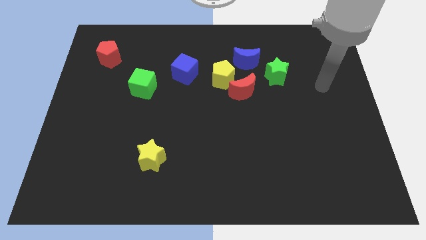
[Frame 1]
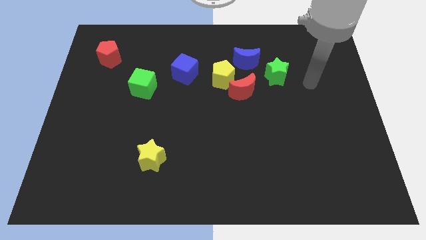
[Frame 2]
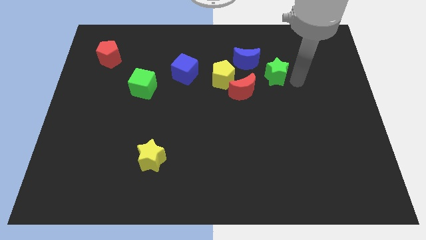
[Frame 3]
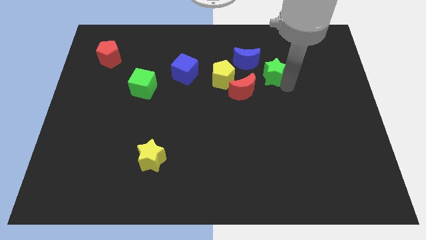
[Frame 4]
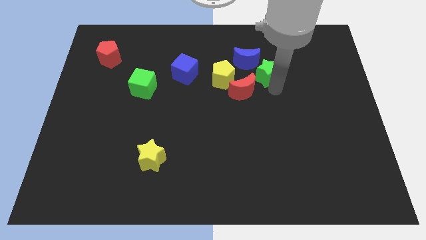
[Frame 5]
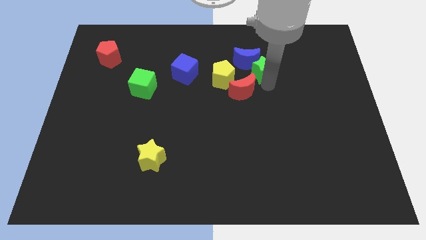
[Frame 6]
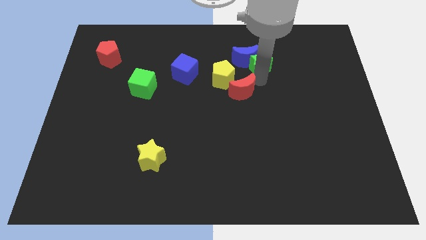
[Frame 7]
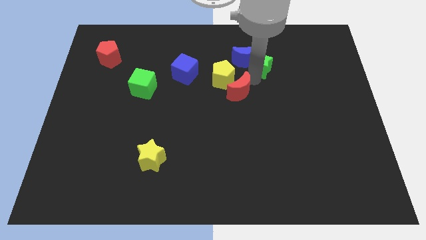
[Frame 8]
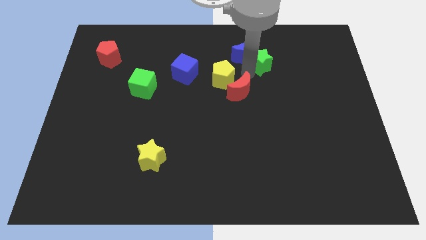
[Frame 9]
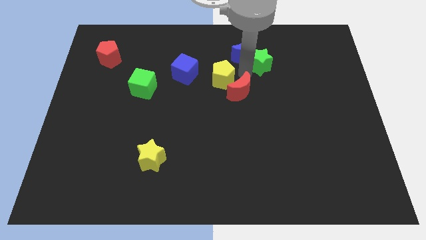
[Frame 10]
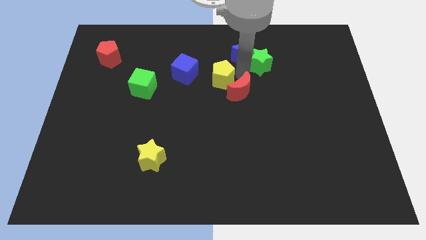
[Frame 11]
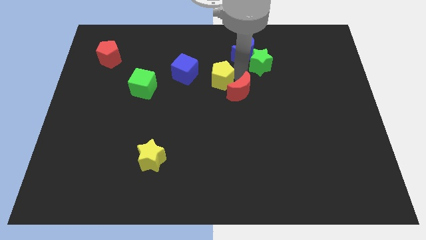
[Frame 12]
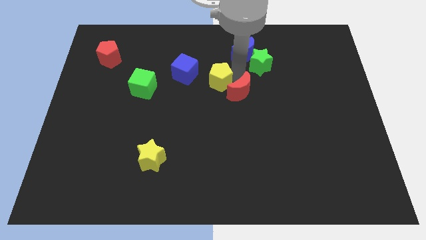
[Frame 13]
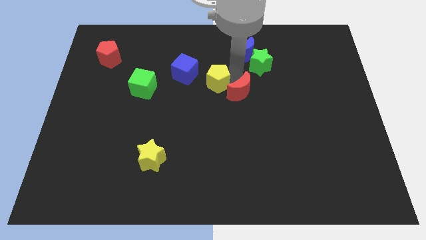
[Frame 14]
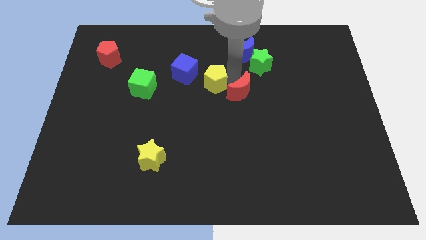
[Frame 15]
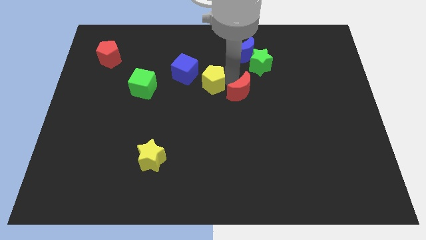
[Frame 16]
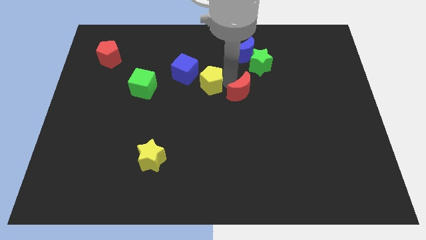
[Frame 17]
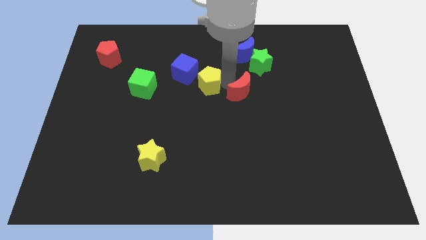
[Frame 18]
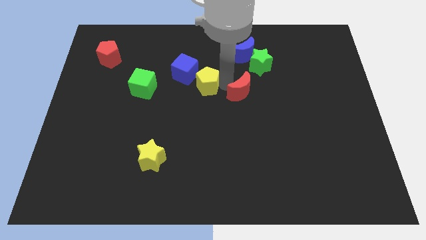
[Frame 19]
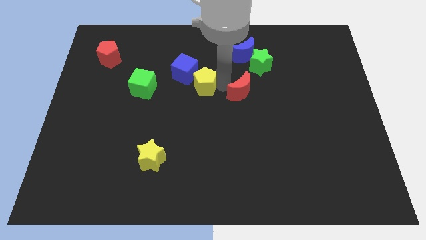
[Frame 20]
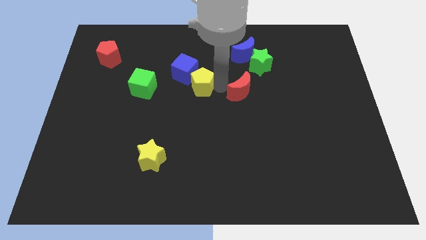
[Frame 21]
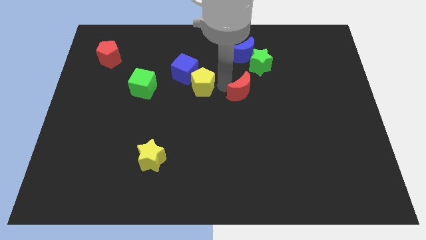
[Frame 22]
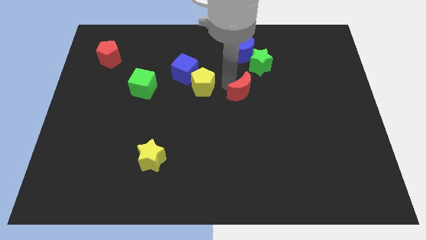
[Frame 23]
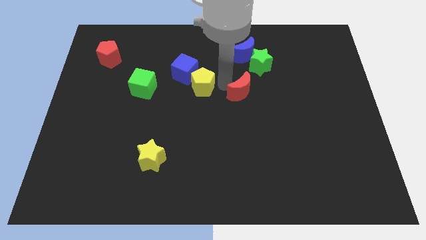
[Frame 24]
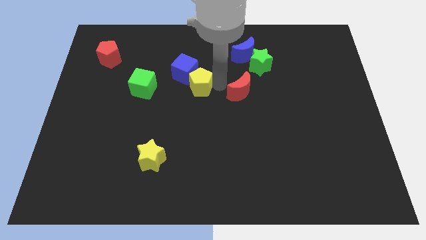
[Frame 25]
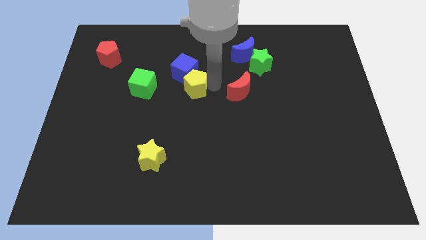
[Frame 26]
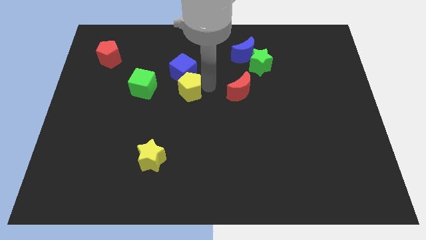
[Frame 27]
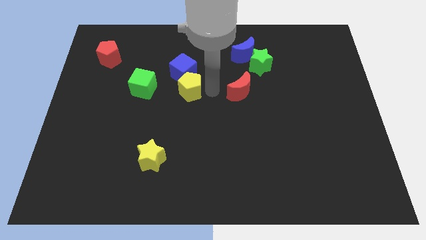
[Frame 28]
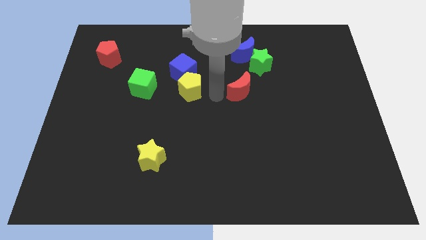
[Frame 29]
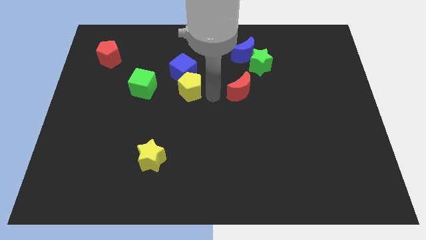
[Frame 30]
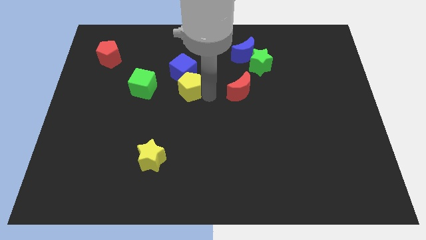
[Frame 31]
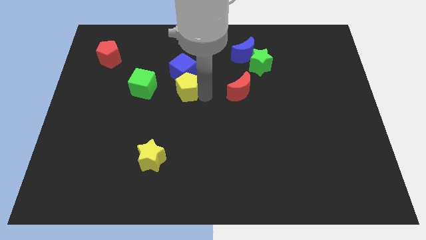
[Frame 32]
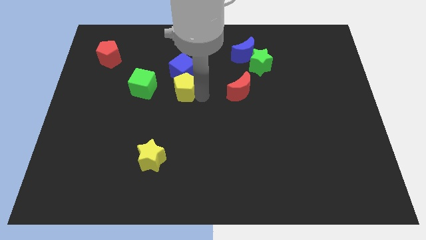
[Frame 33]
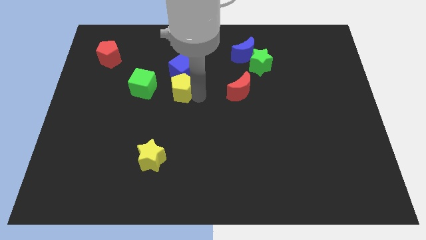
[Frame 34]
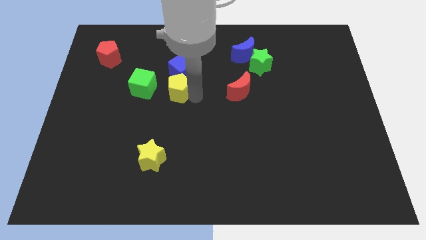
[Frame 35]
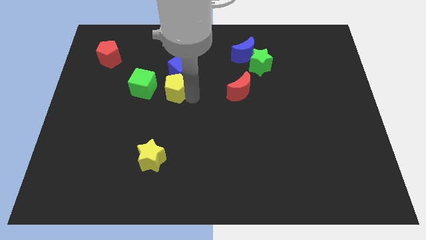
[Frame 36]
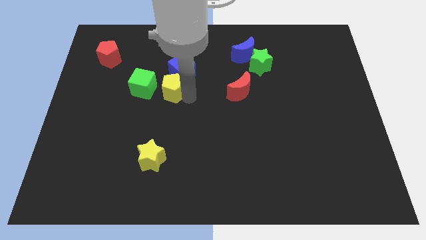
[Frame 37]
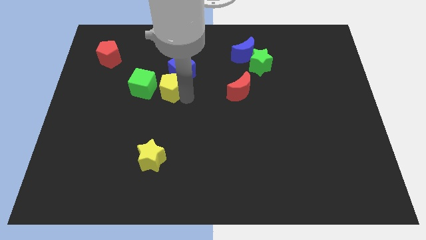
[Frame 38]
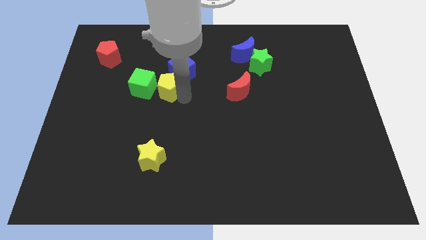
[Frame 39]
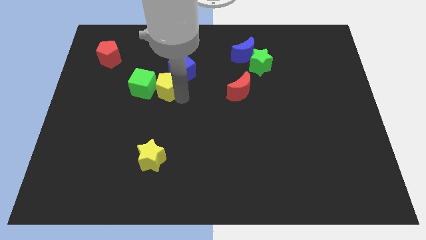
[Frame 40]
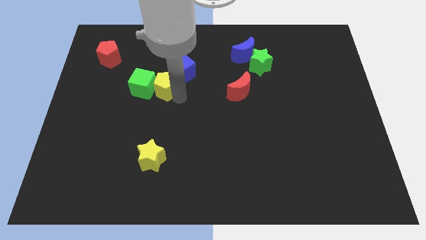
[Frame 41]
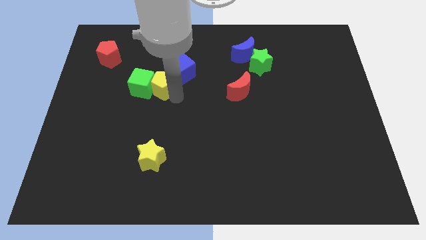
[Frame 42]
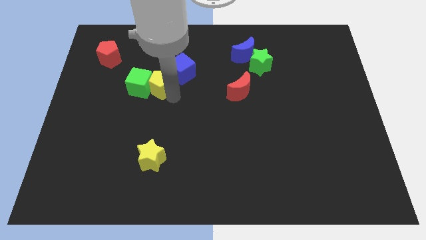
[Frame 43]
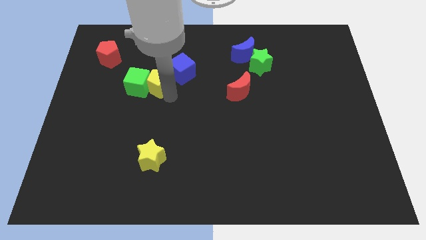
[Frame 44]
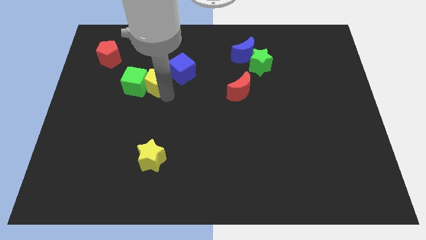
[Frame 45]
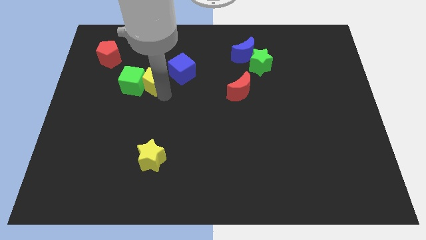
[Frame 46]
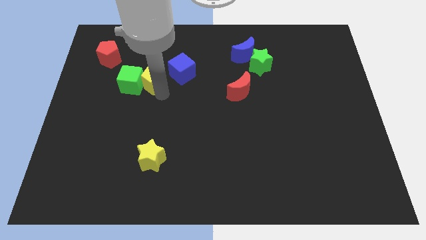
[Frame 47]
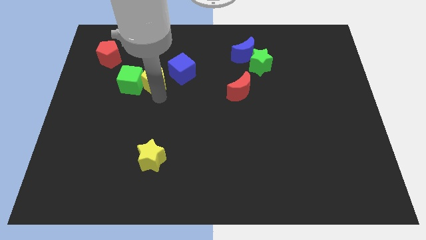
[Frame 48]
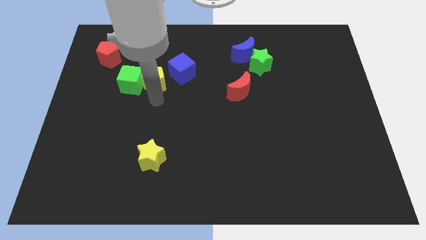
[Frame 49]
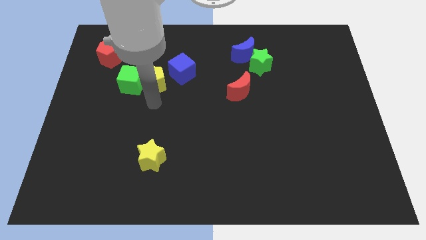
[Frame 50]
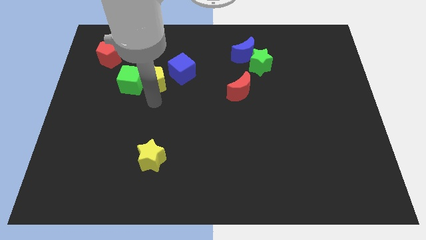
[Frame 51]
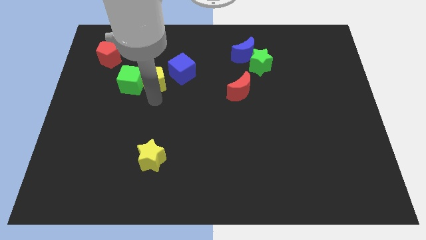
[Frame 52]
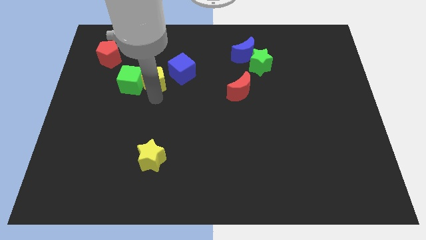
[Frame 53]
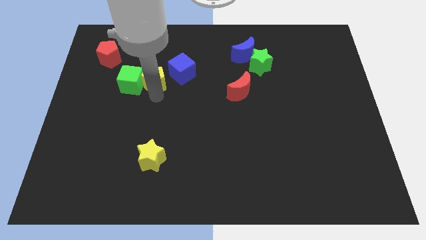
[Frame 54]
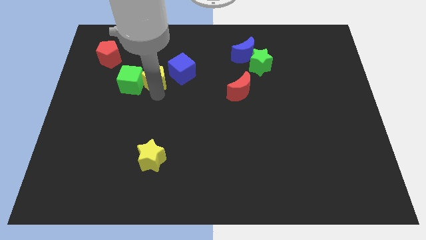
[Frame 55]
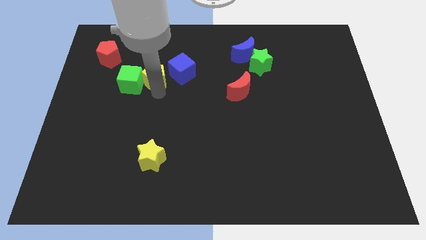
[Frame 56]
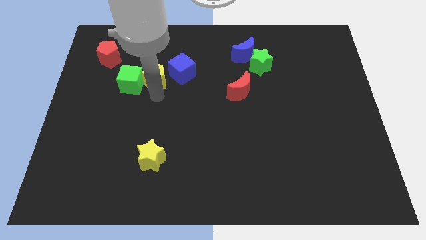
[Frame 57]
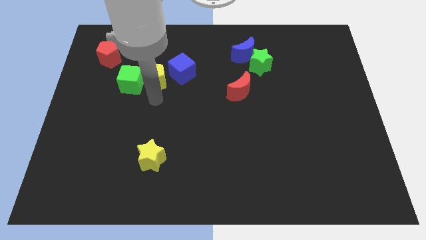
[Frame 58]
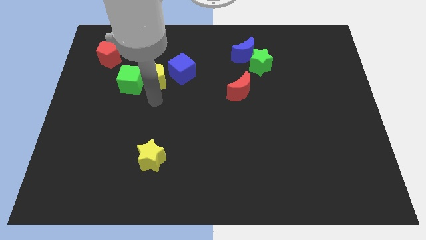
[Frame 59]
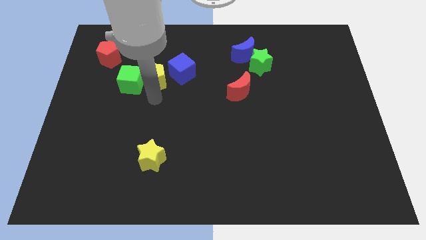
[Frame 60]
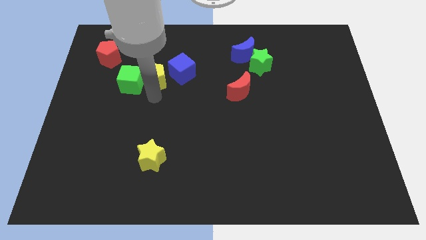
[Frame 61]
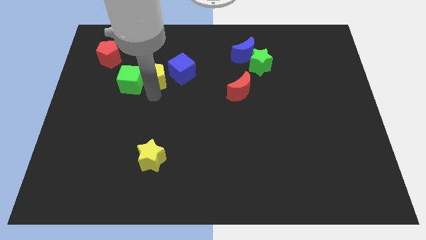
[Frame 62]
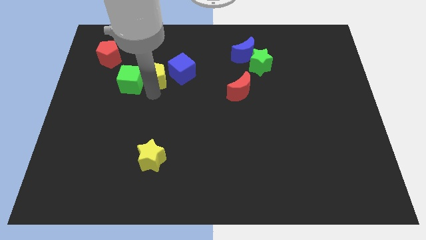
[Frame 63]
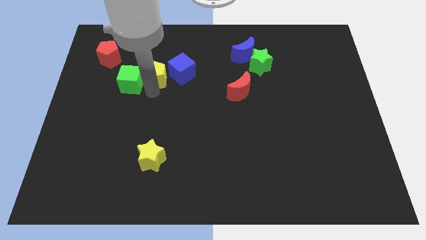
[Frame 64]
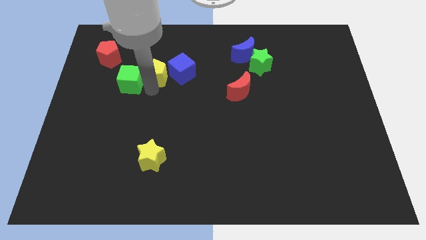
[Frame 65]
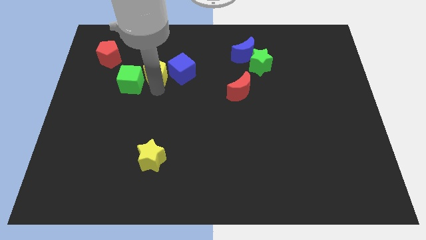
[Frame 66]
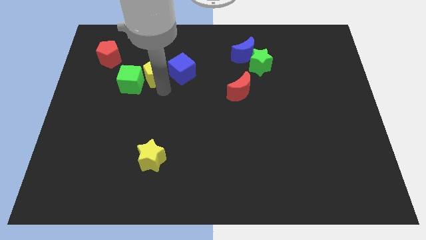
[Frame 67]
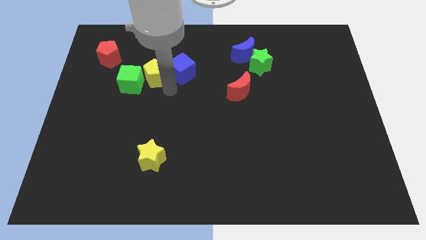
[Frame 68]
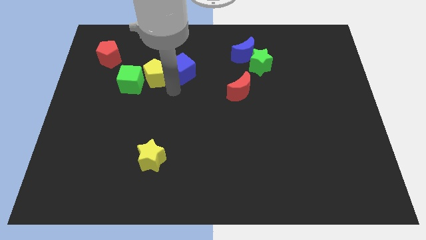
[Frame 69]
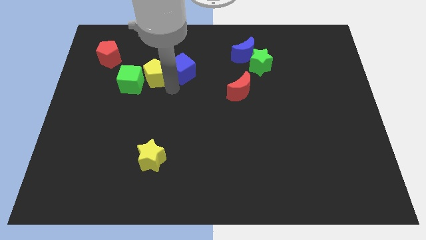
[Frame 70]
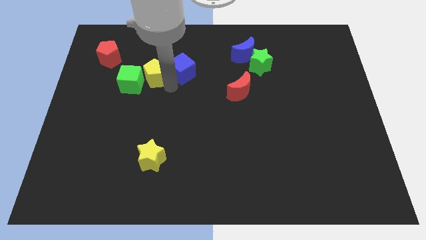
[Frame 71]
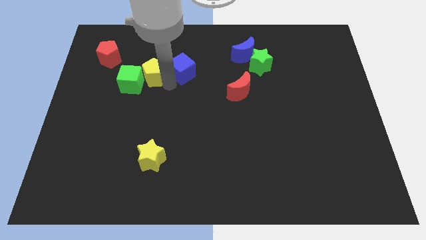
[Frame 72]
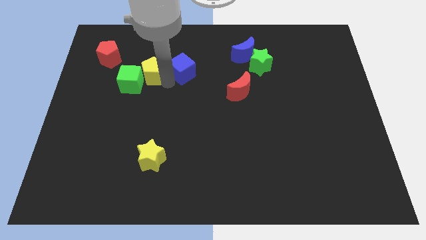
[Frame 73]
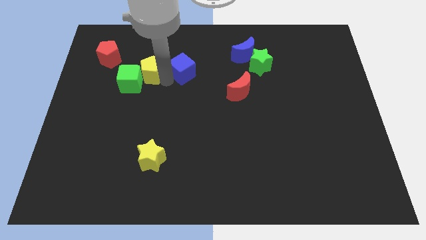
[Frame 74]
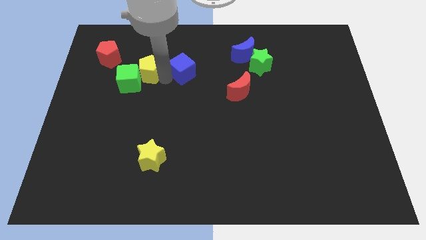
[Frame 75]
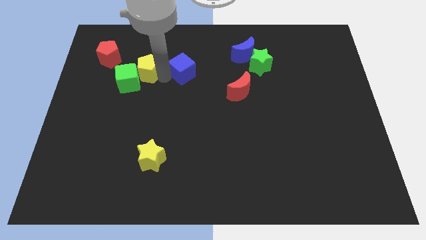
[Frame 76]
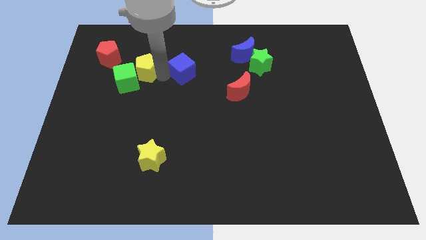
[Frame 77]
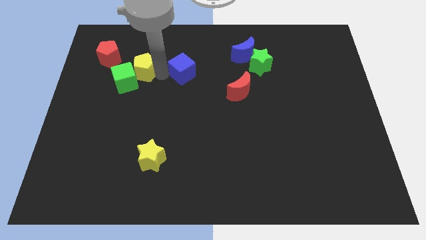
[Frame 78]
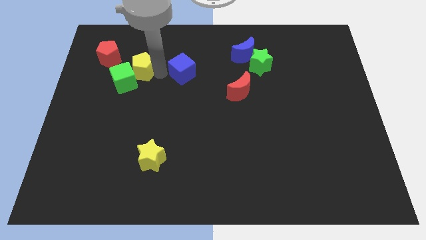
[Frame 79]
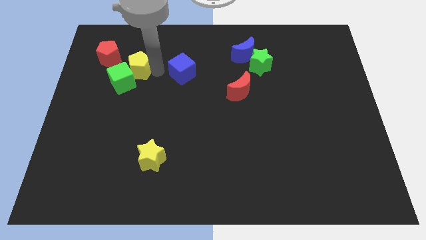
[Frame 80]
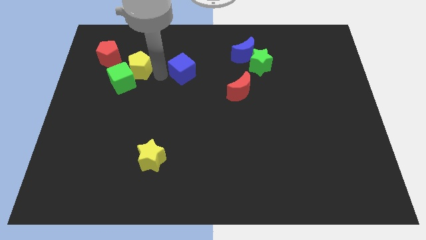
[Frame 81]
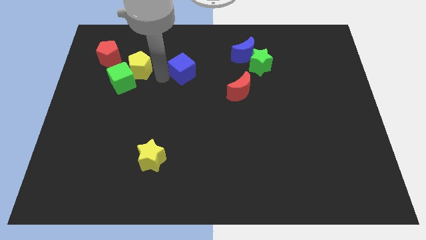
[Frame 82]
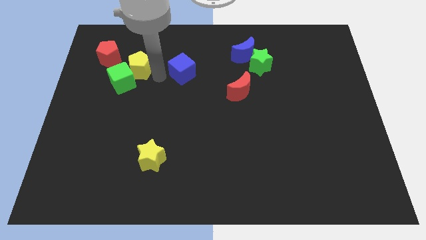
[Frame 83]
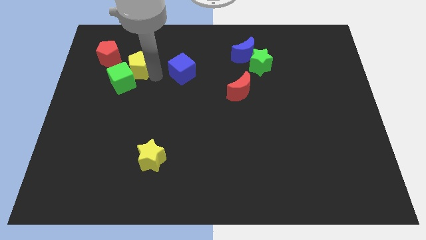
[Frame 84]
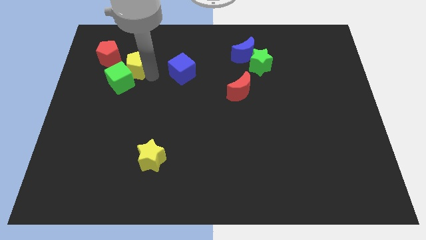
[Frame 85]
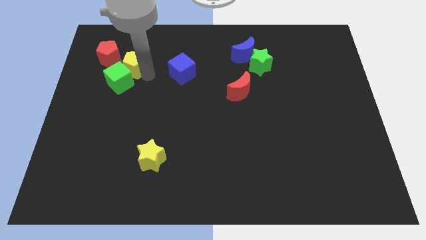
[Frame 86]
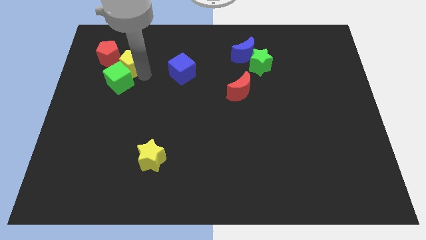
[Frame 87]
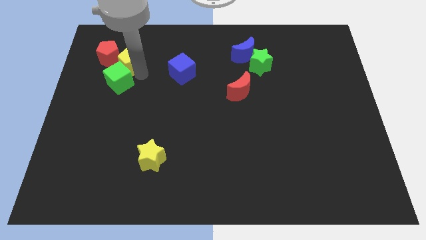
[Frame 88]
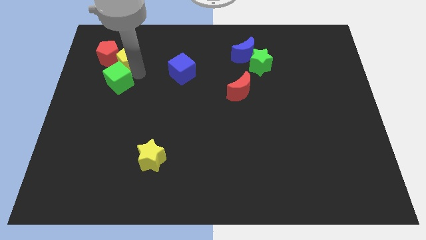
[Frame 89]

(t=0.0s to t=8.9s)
slide the yellow pentagon close to the red pentagon
